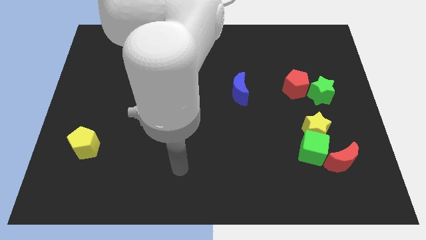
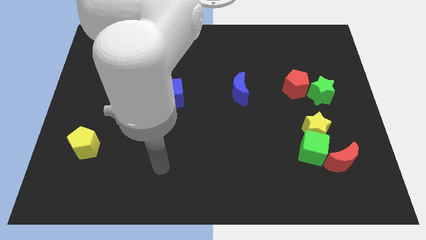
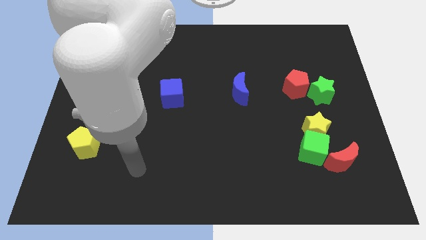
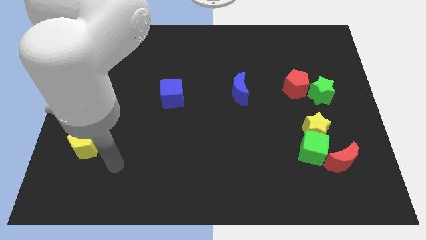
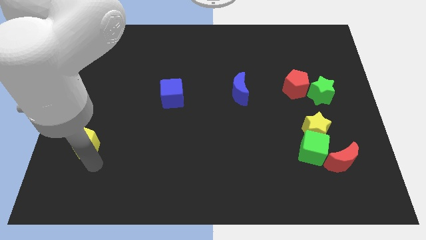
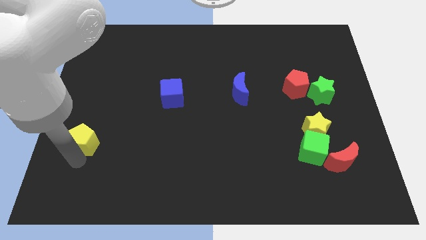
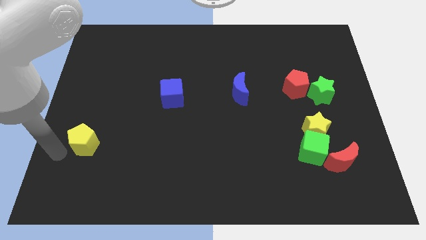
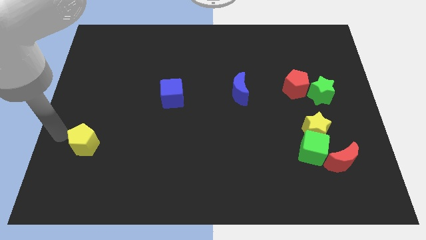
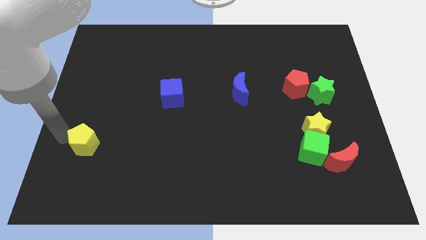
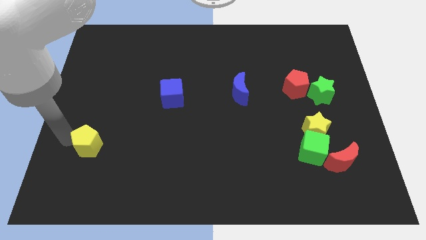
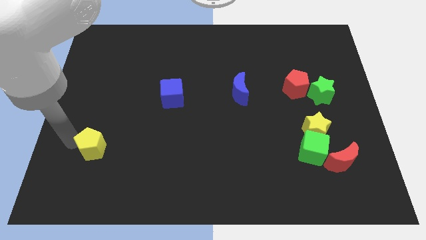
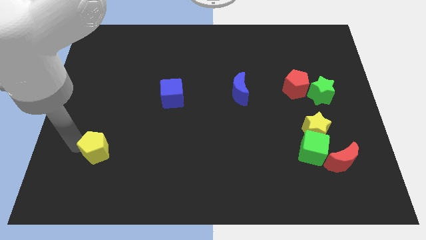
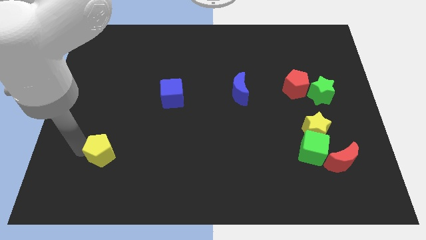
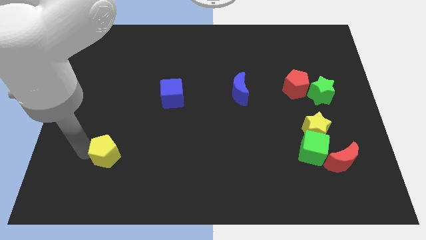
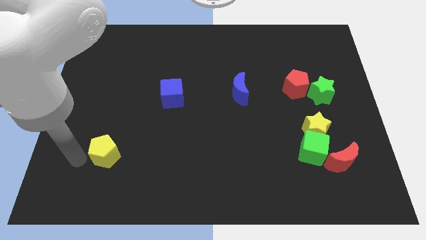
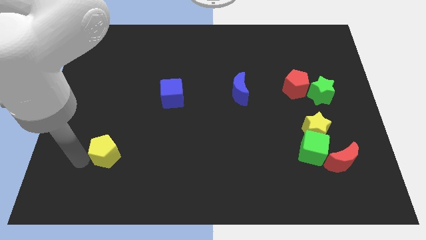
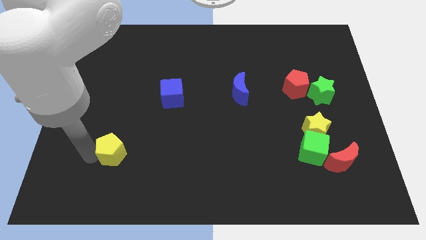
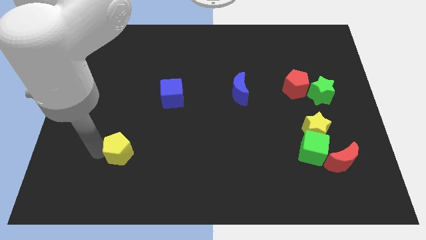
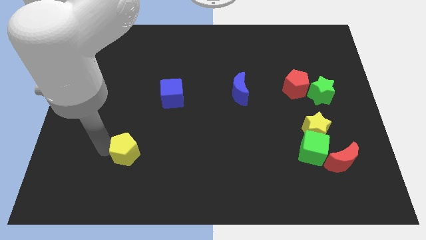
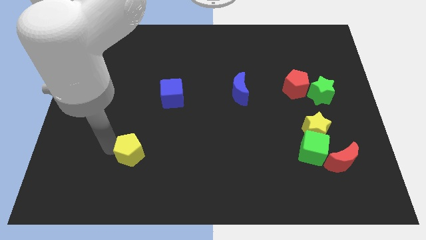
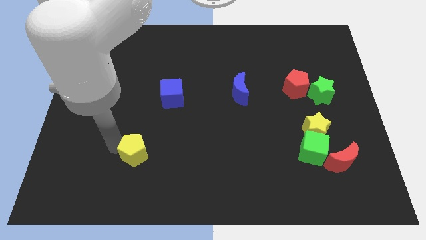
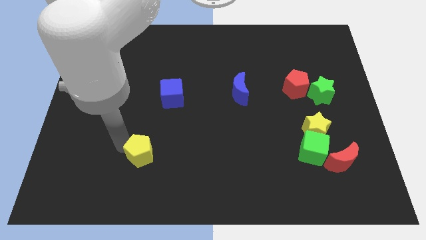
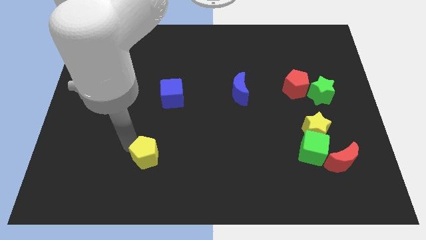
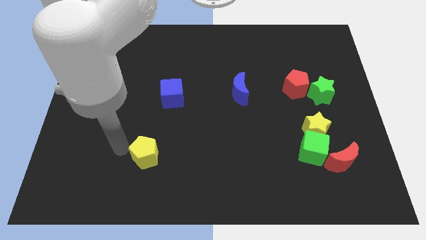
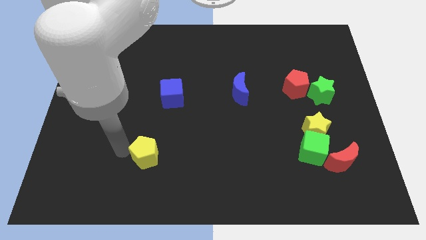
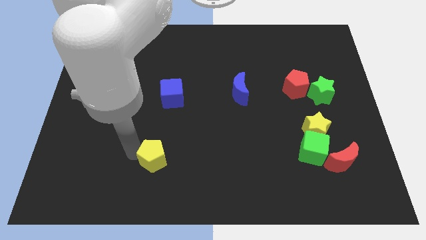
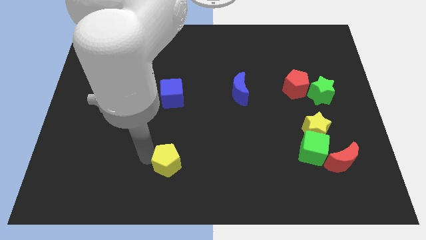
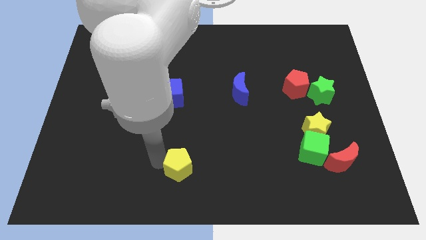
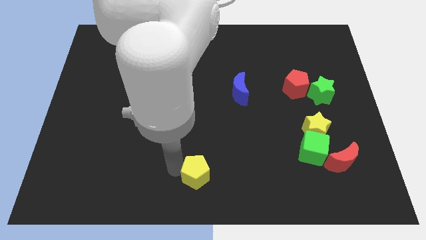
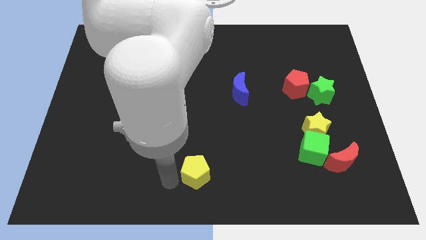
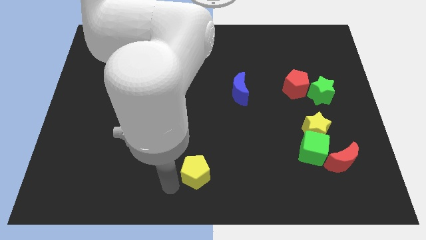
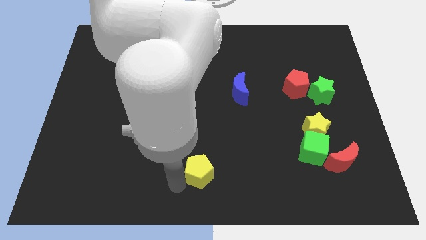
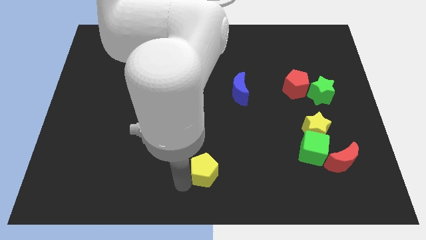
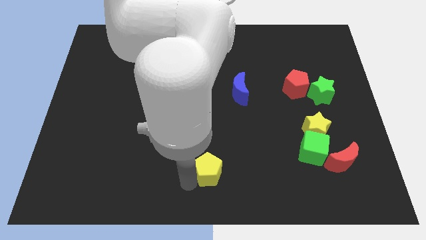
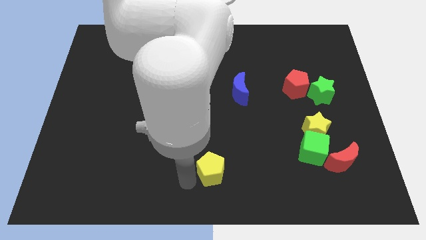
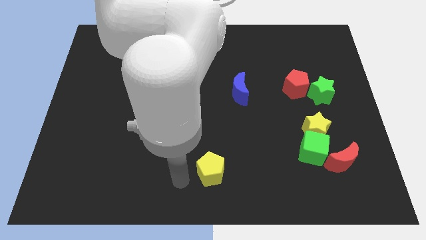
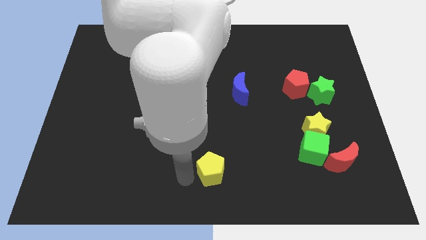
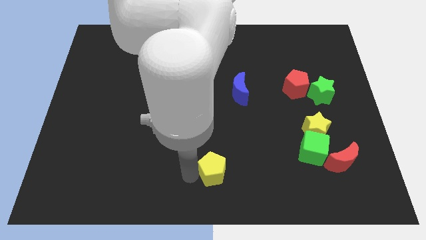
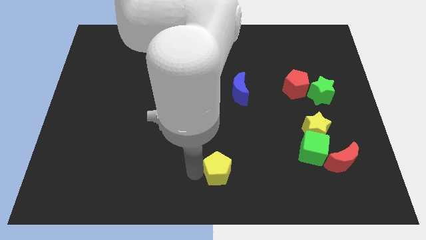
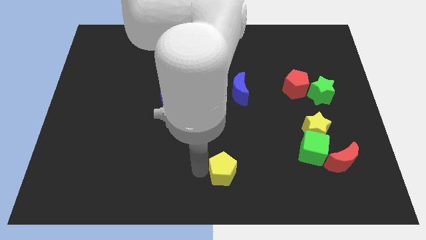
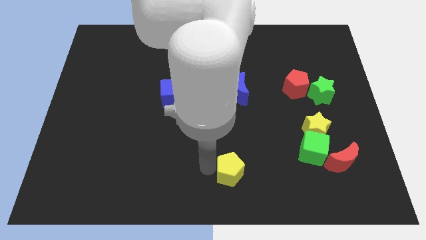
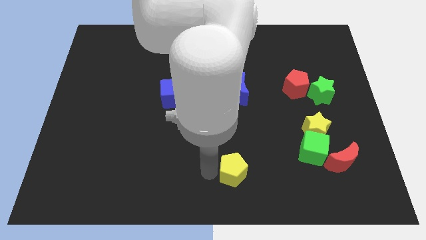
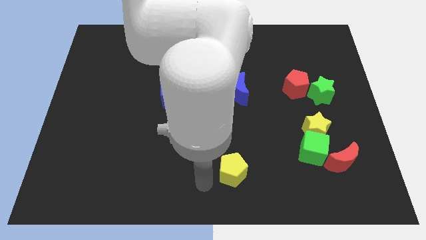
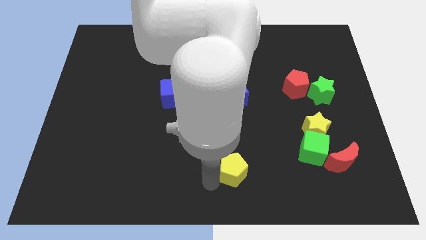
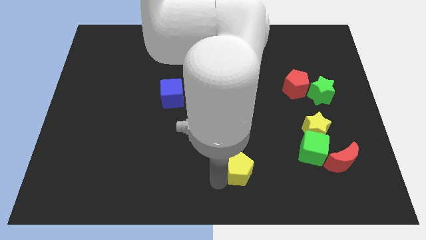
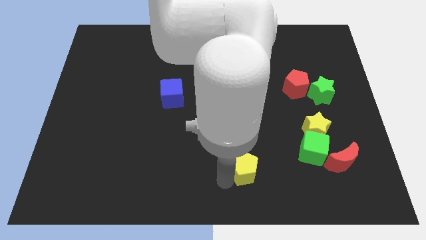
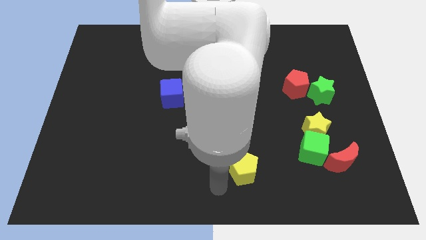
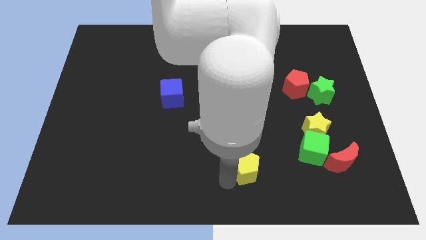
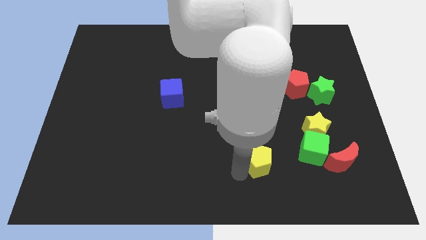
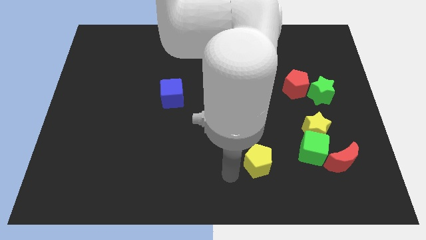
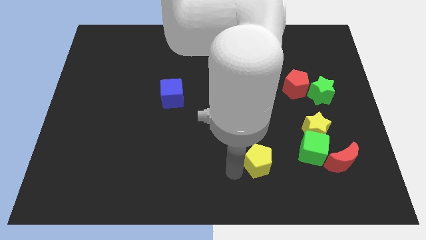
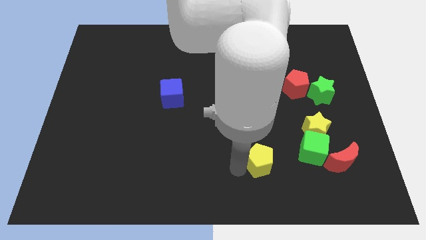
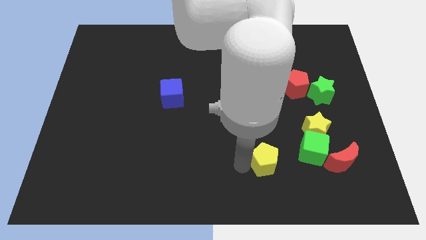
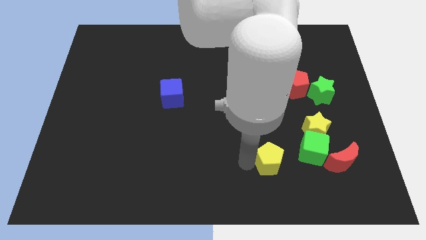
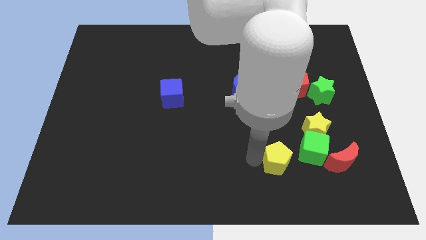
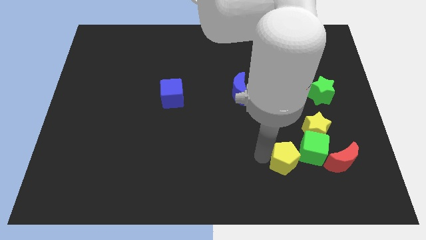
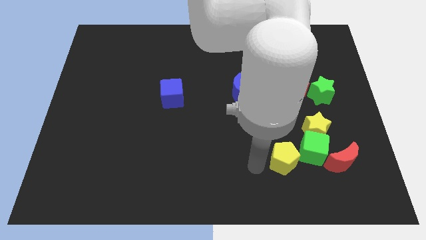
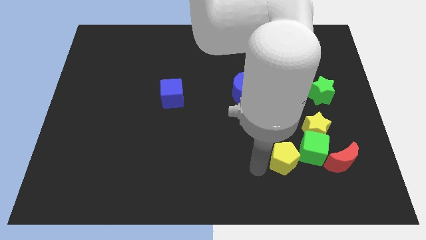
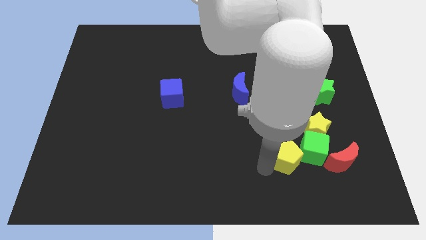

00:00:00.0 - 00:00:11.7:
put the yellow pentagon to the green cube
